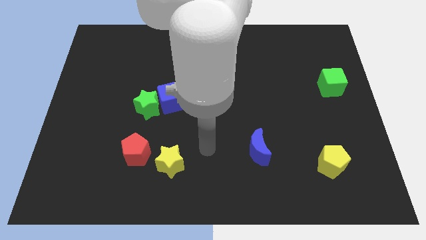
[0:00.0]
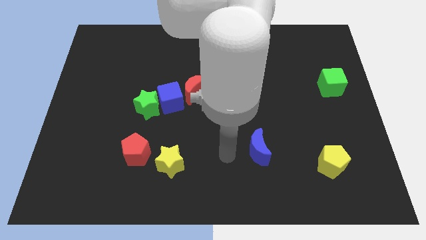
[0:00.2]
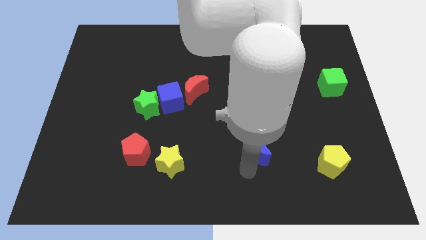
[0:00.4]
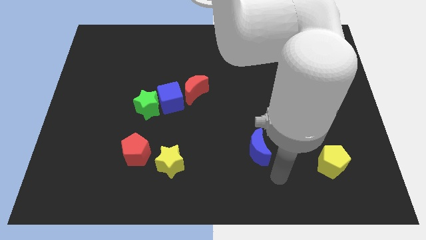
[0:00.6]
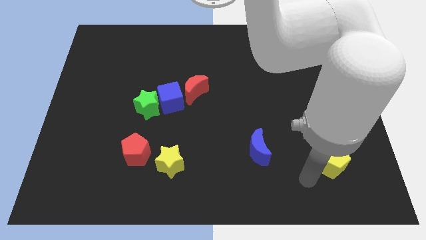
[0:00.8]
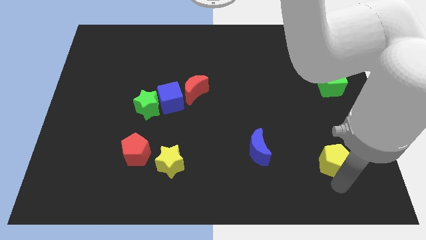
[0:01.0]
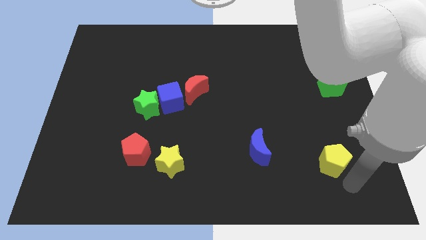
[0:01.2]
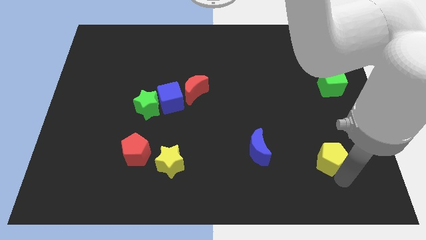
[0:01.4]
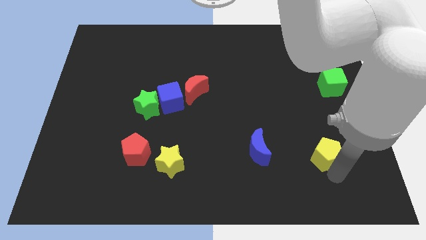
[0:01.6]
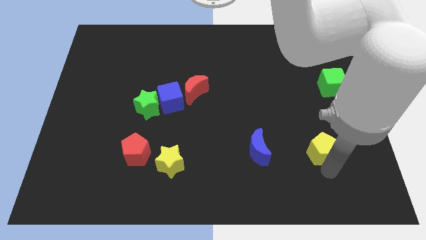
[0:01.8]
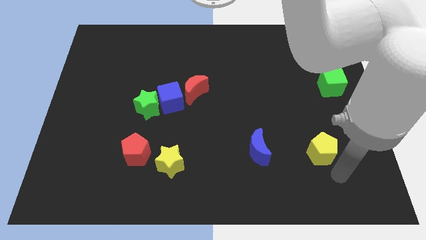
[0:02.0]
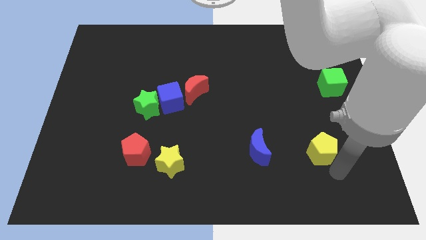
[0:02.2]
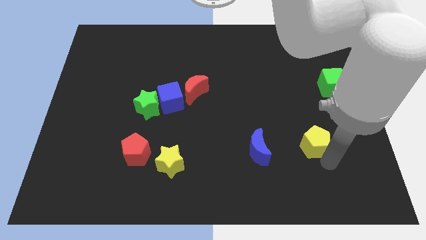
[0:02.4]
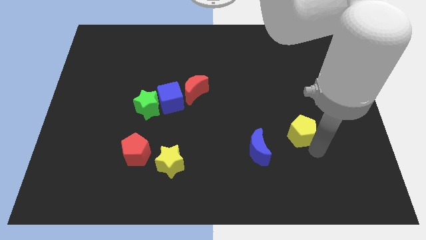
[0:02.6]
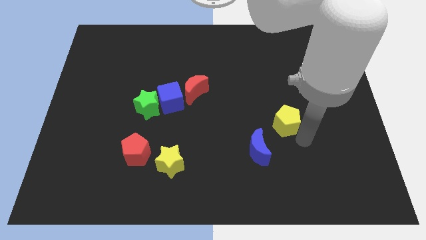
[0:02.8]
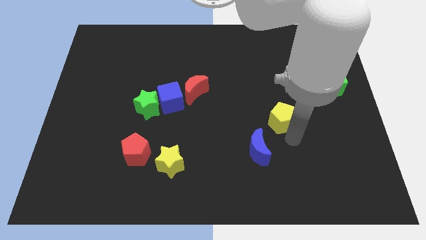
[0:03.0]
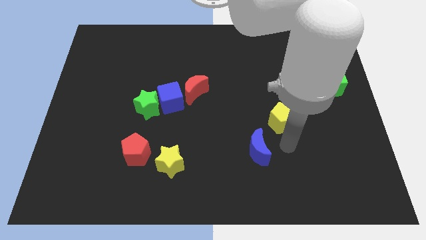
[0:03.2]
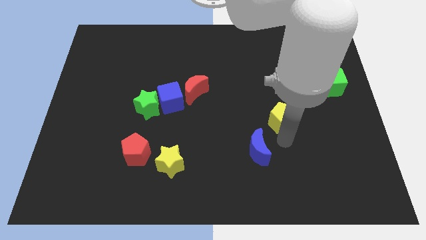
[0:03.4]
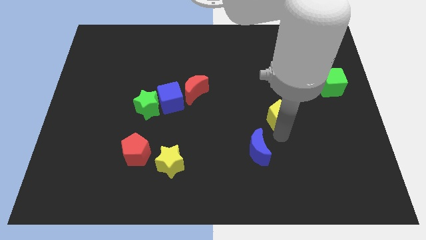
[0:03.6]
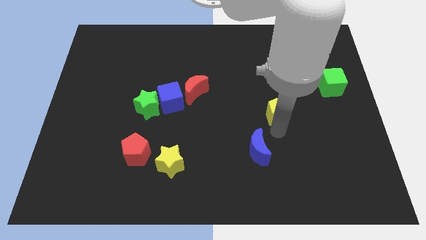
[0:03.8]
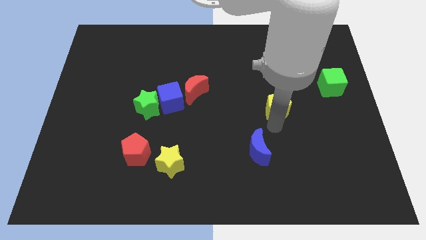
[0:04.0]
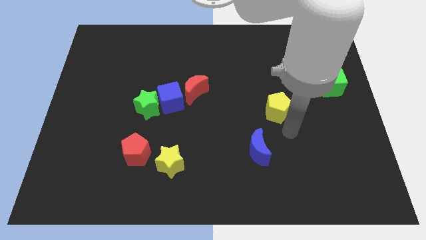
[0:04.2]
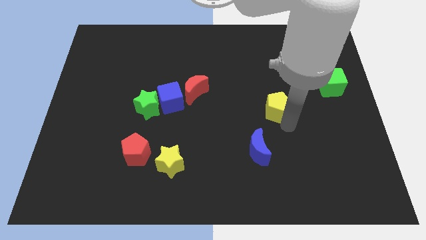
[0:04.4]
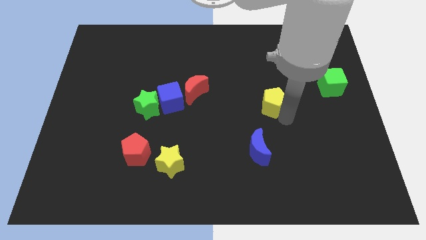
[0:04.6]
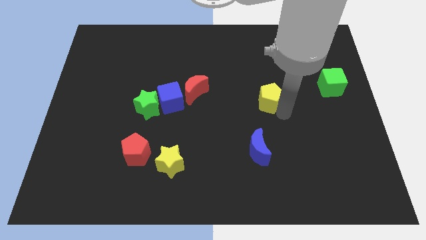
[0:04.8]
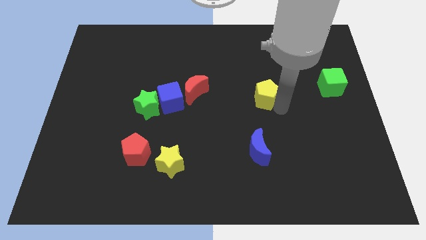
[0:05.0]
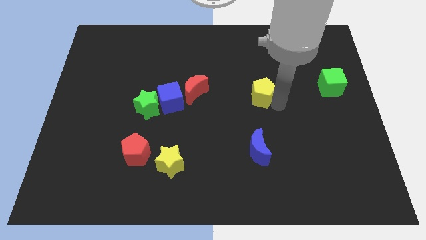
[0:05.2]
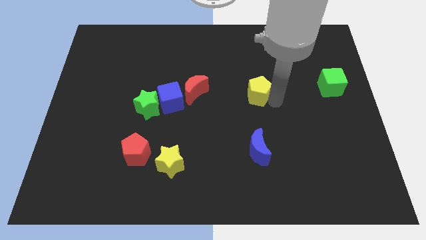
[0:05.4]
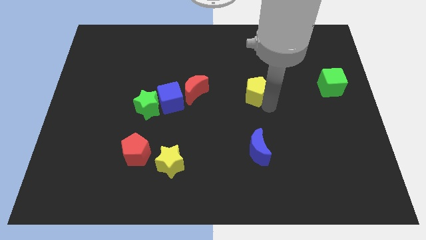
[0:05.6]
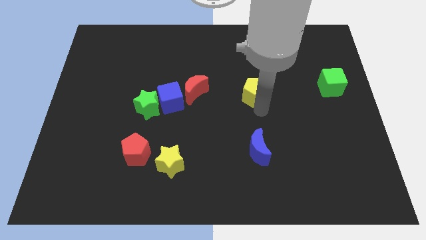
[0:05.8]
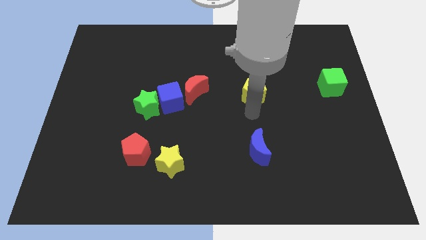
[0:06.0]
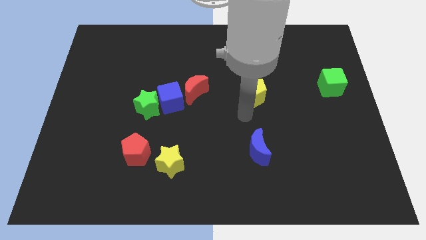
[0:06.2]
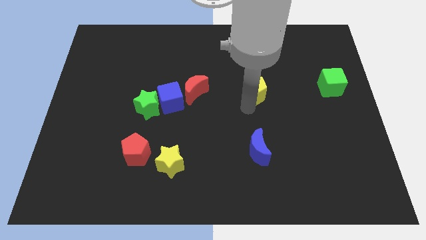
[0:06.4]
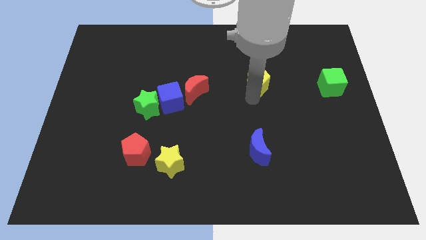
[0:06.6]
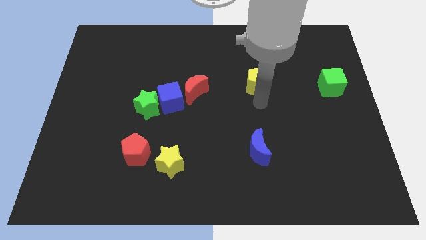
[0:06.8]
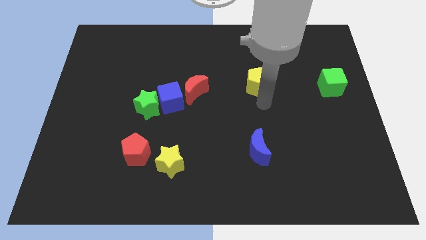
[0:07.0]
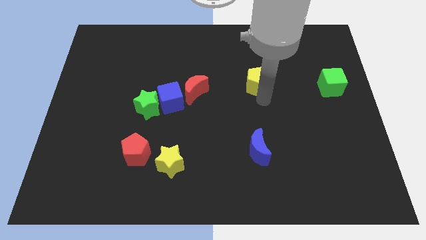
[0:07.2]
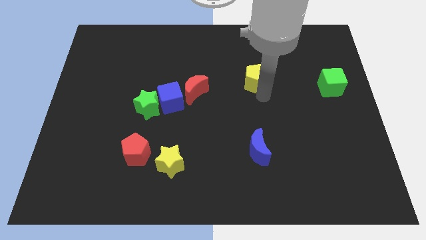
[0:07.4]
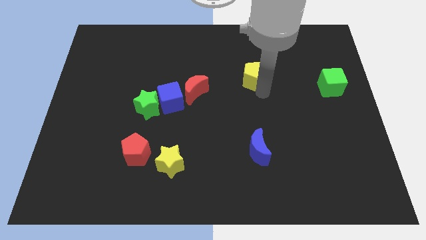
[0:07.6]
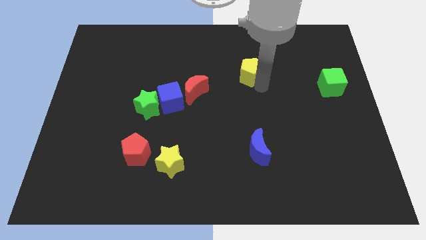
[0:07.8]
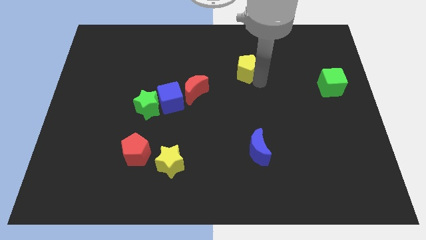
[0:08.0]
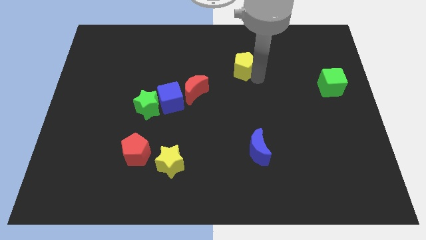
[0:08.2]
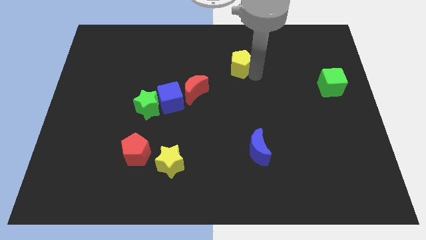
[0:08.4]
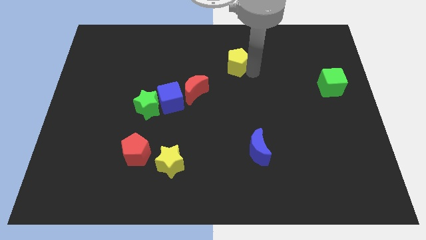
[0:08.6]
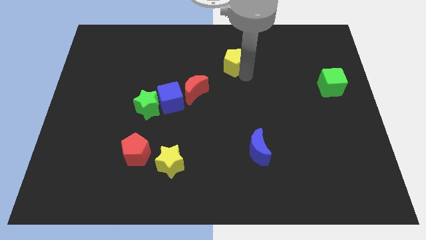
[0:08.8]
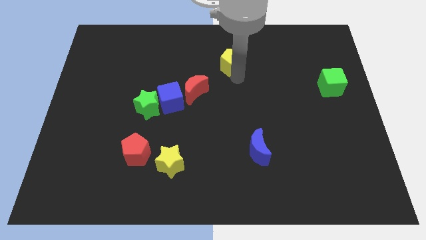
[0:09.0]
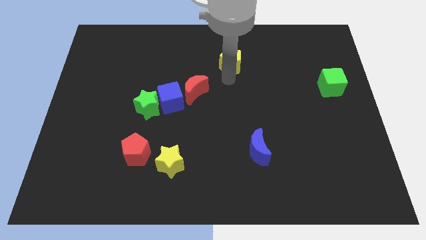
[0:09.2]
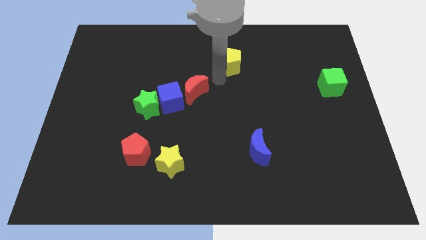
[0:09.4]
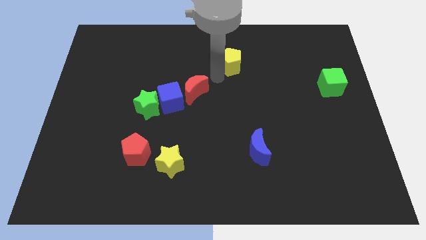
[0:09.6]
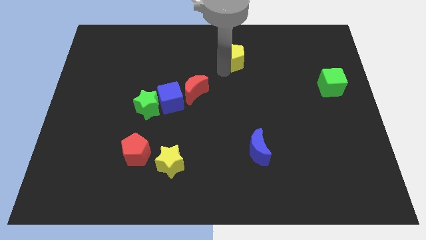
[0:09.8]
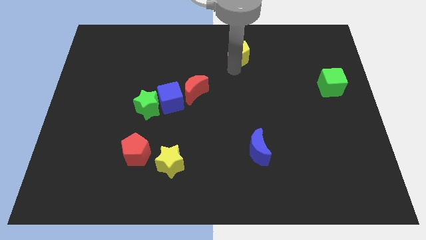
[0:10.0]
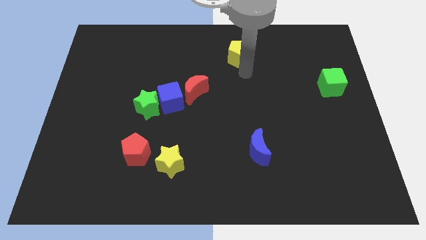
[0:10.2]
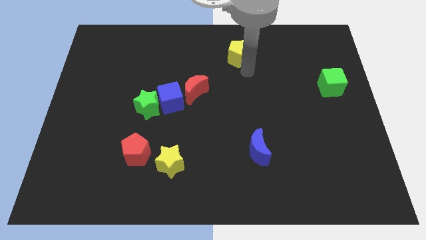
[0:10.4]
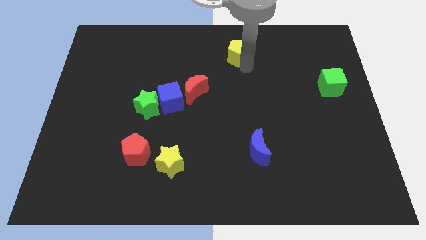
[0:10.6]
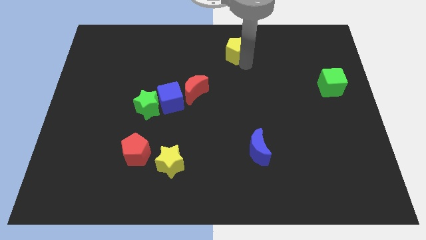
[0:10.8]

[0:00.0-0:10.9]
put the yellow pentagon to the towards your base

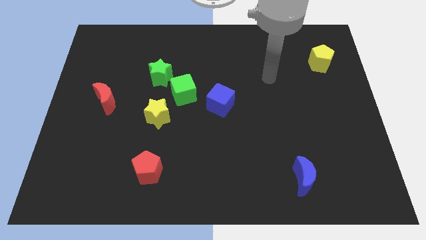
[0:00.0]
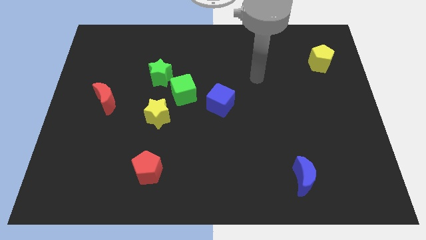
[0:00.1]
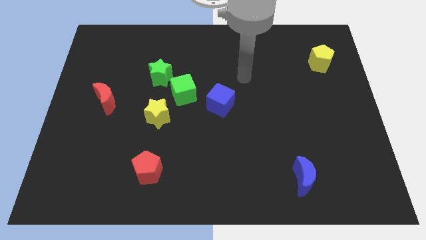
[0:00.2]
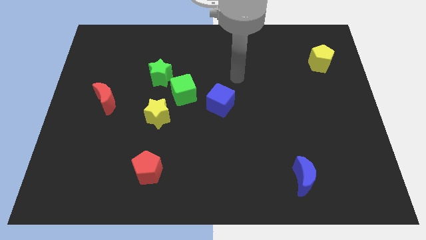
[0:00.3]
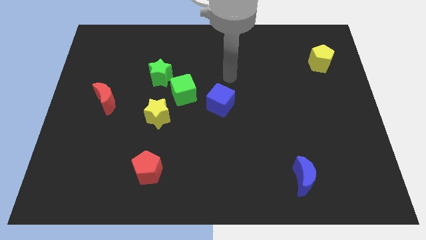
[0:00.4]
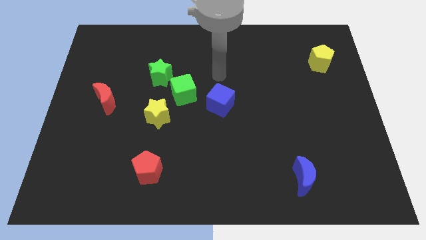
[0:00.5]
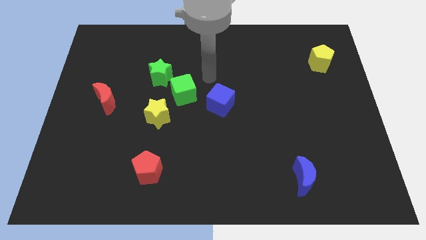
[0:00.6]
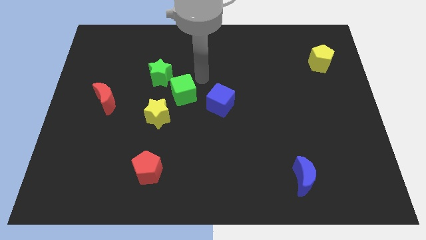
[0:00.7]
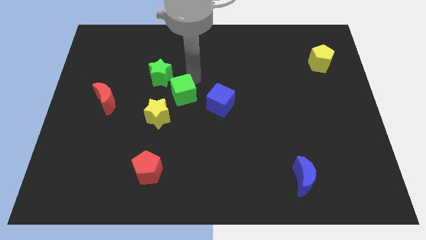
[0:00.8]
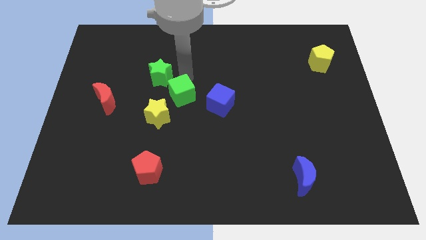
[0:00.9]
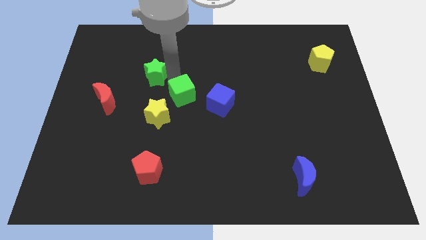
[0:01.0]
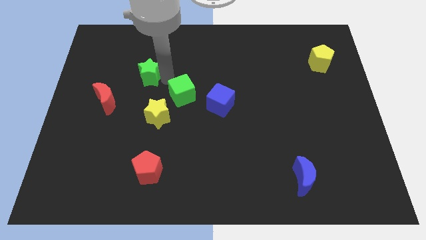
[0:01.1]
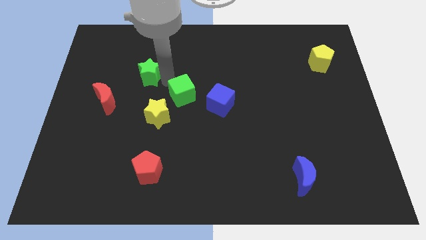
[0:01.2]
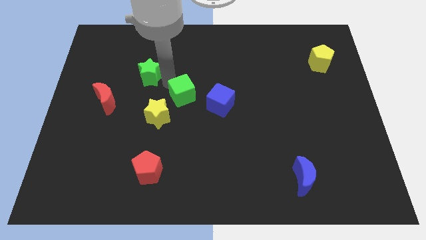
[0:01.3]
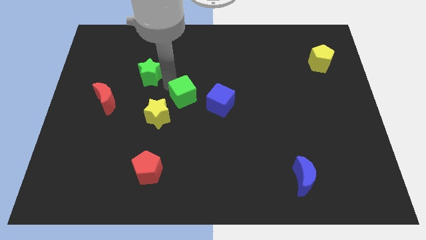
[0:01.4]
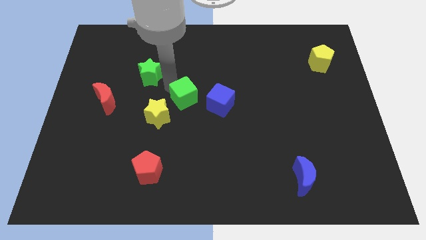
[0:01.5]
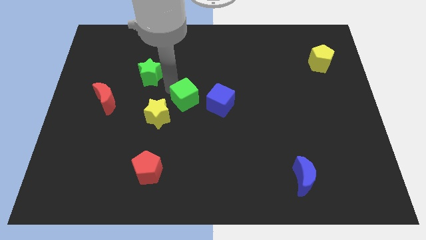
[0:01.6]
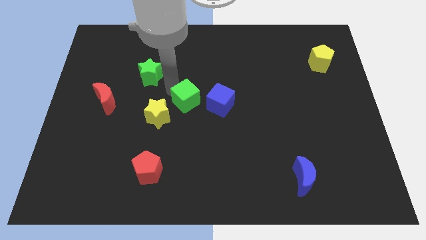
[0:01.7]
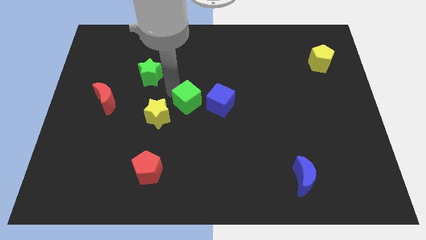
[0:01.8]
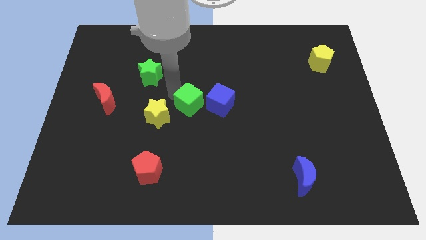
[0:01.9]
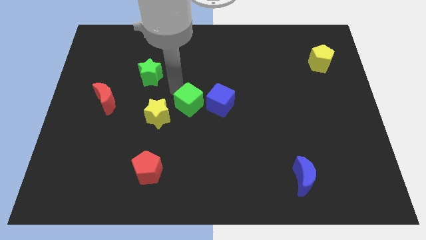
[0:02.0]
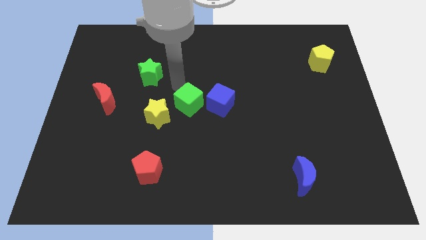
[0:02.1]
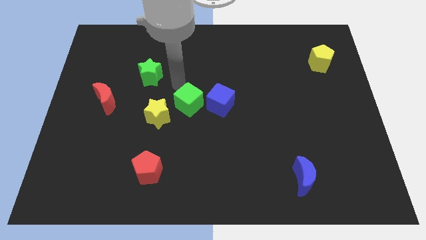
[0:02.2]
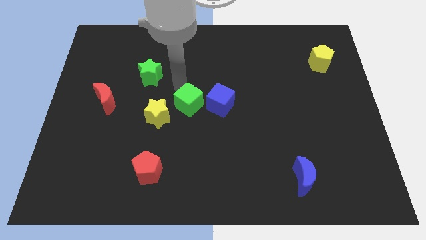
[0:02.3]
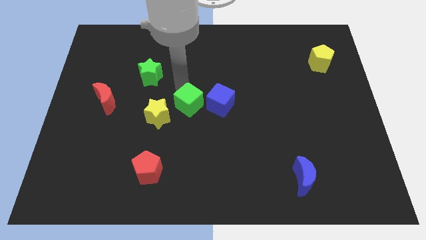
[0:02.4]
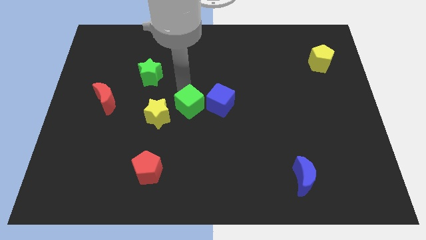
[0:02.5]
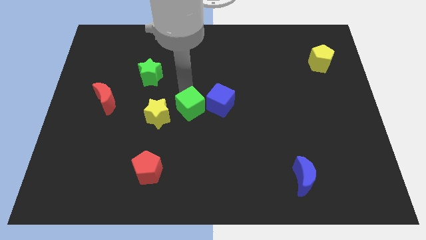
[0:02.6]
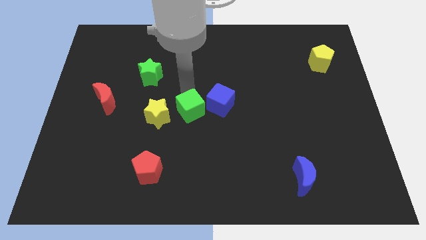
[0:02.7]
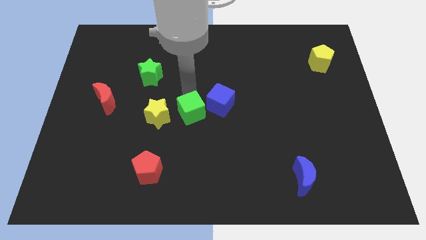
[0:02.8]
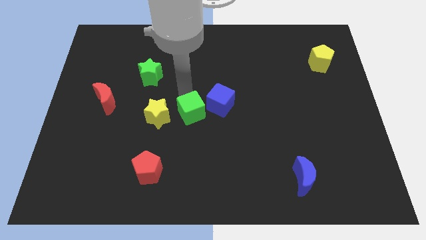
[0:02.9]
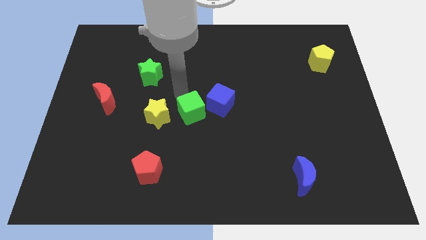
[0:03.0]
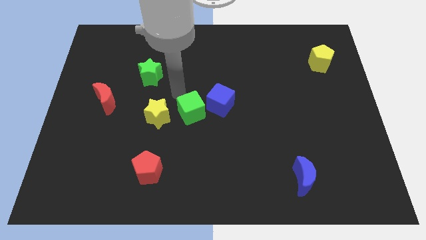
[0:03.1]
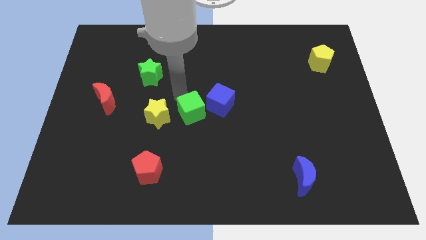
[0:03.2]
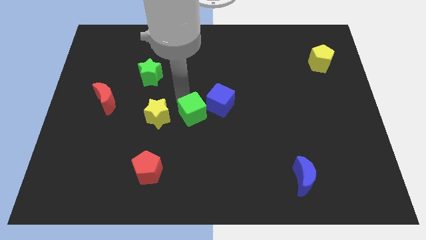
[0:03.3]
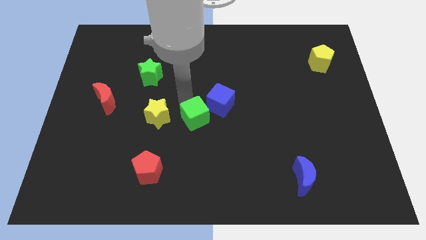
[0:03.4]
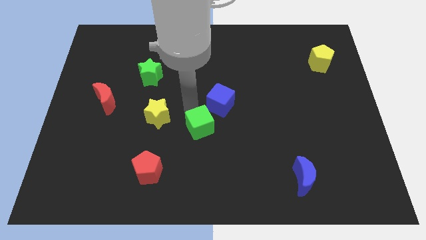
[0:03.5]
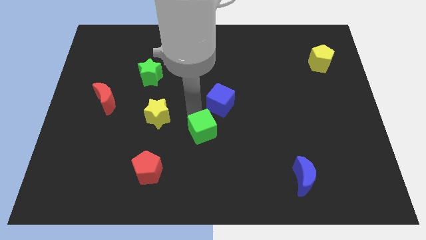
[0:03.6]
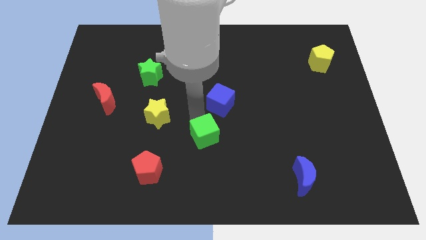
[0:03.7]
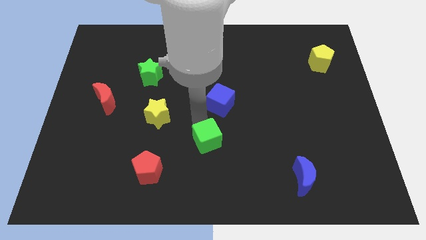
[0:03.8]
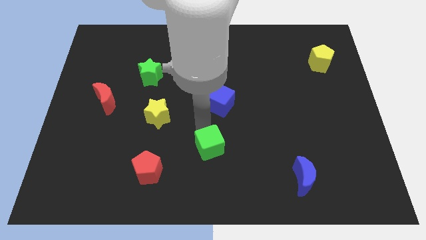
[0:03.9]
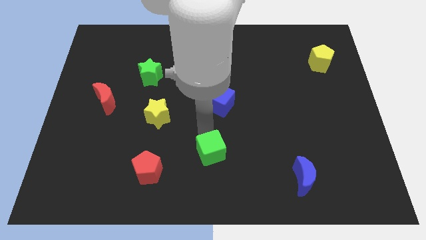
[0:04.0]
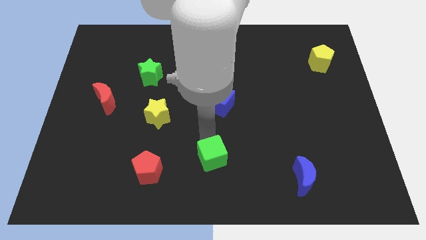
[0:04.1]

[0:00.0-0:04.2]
put the green cube to the bottom side
